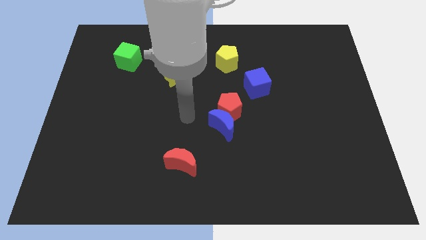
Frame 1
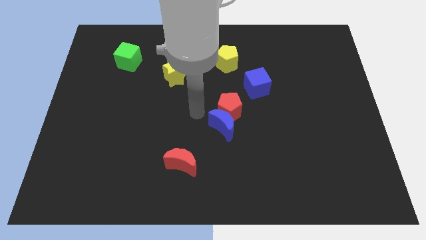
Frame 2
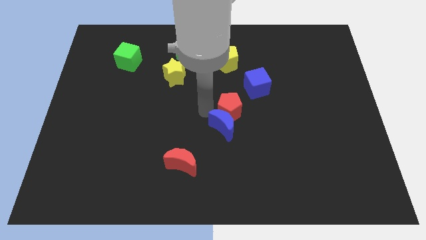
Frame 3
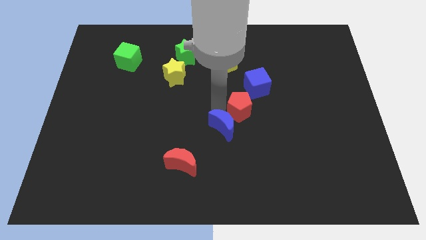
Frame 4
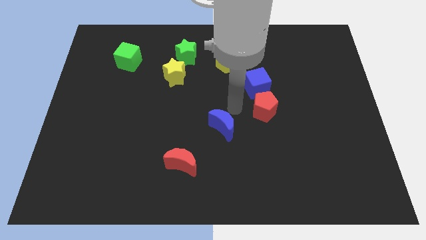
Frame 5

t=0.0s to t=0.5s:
move the blue moon away from the red pentagon

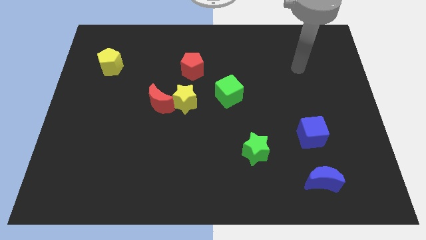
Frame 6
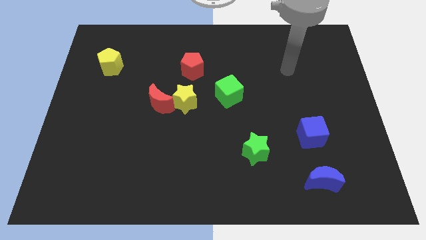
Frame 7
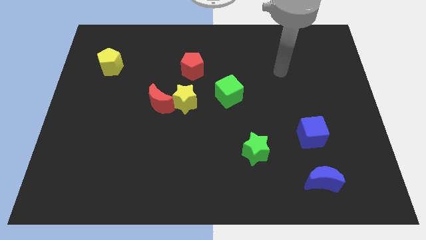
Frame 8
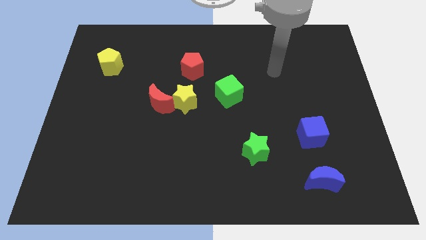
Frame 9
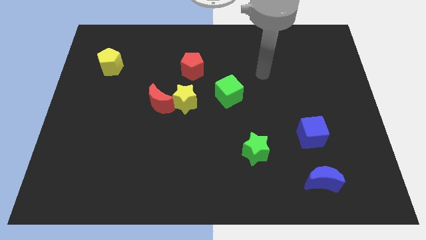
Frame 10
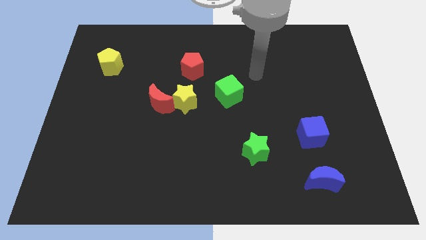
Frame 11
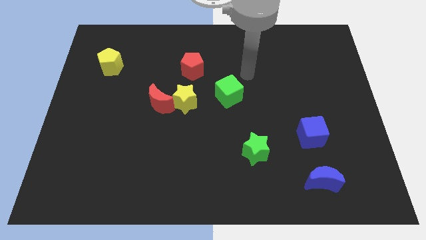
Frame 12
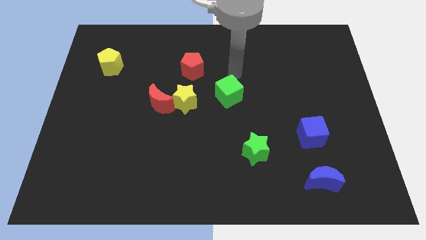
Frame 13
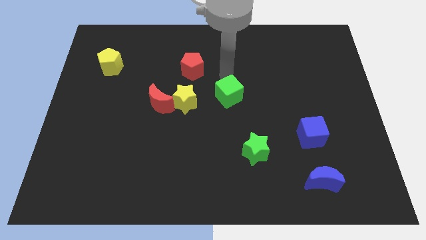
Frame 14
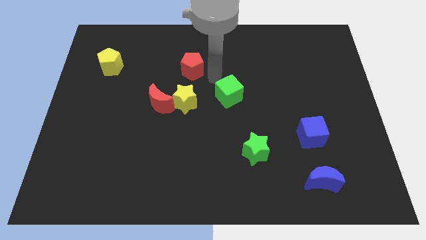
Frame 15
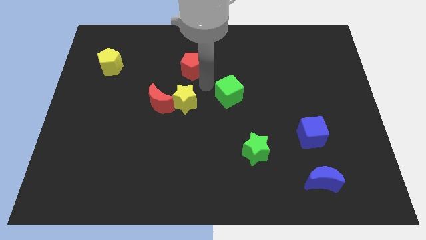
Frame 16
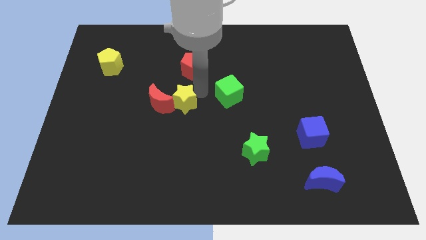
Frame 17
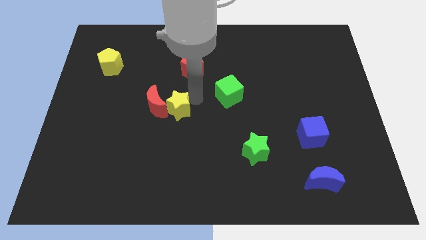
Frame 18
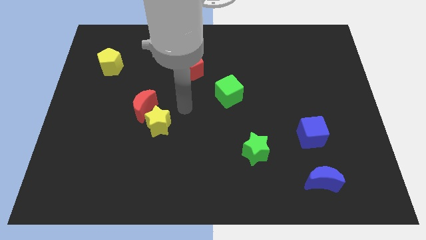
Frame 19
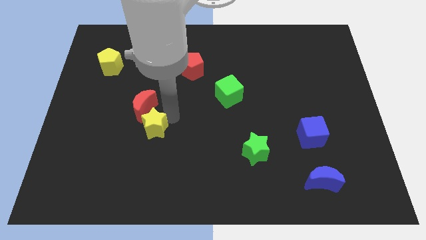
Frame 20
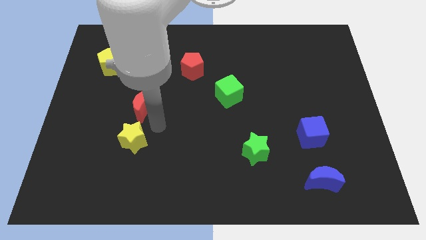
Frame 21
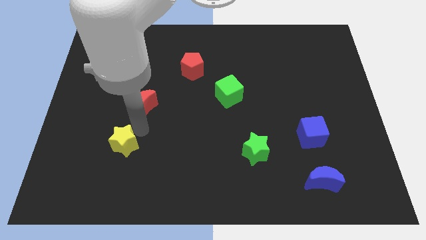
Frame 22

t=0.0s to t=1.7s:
move the red moon away from the yellow star

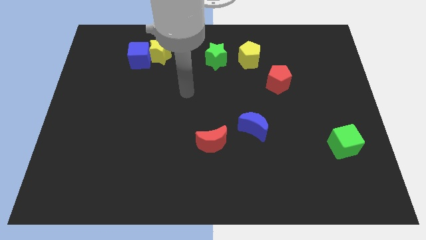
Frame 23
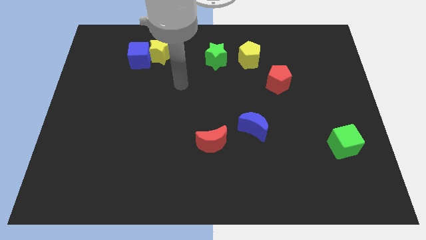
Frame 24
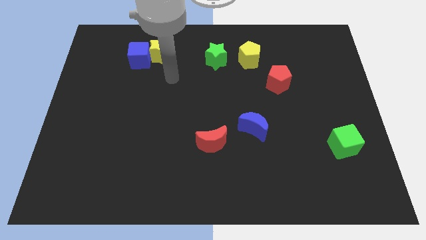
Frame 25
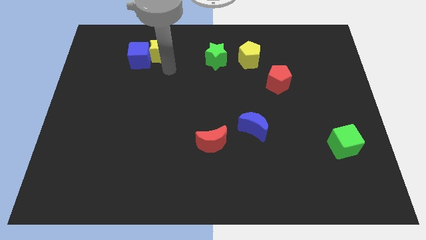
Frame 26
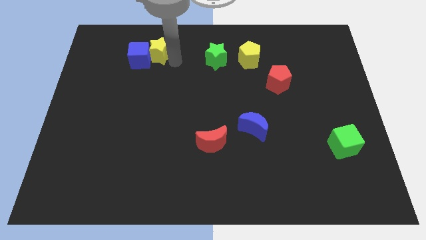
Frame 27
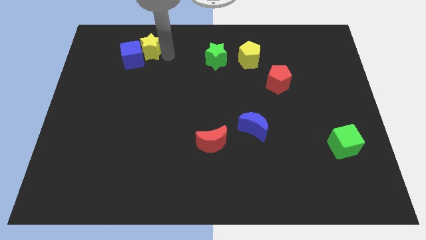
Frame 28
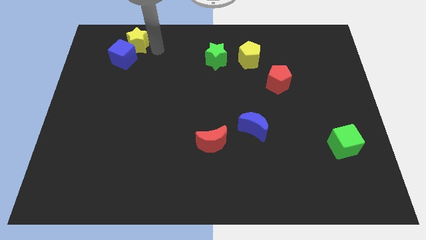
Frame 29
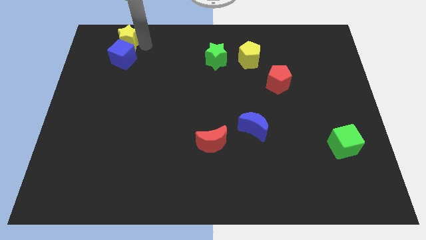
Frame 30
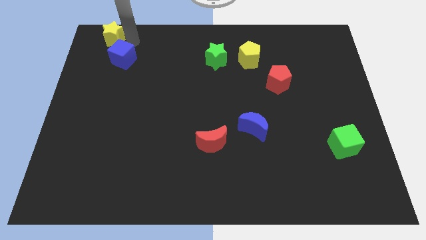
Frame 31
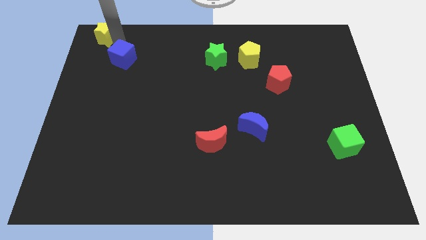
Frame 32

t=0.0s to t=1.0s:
pull the blue cube apart from the yellow star

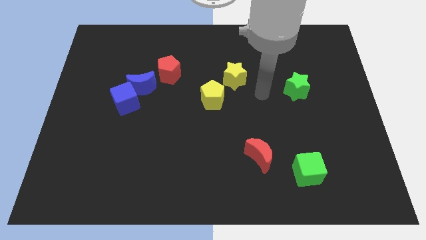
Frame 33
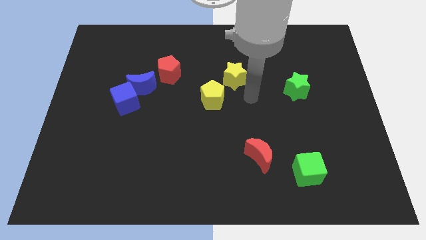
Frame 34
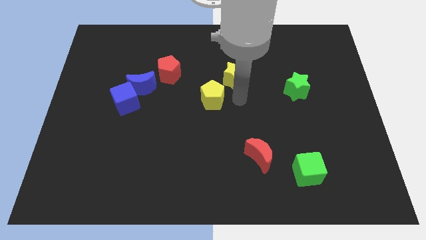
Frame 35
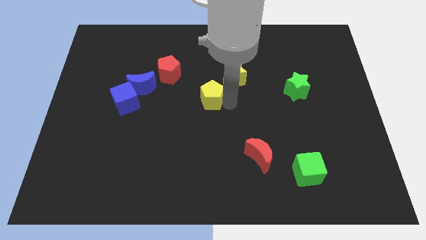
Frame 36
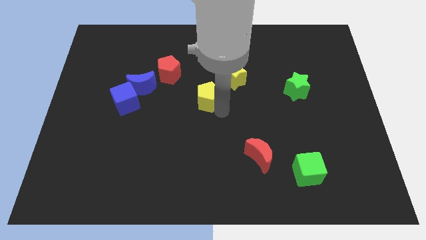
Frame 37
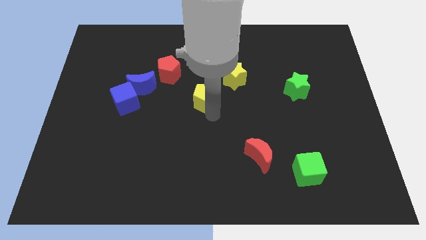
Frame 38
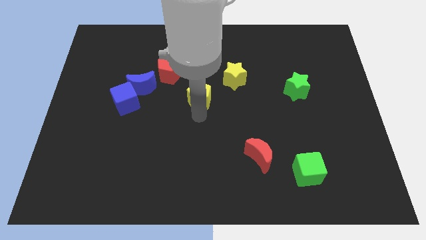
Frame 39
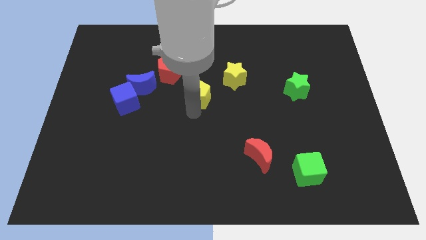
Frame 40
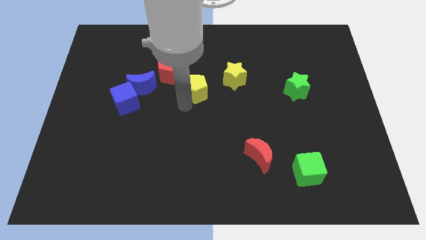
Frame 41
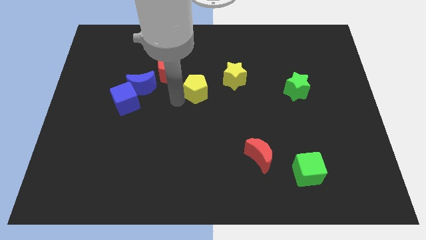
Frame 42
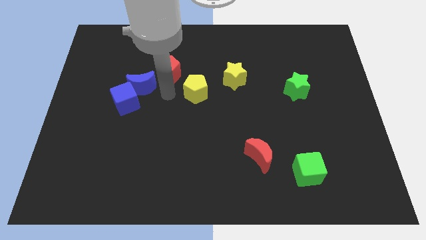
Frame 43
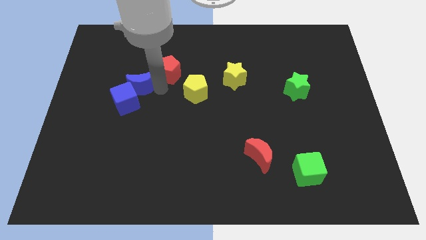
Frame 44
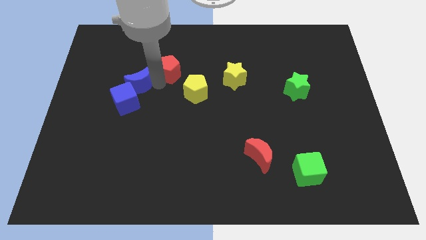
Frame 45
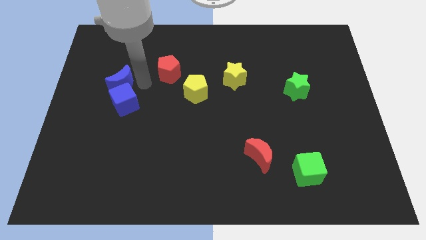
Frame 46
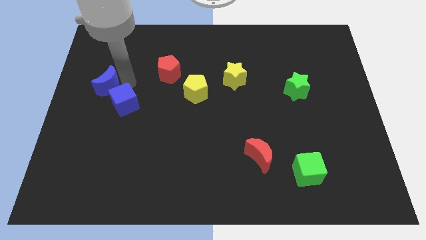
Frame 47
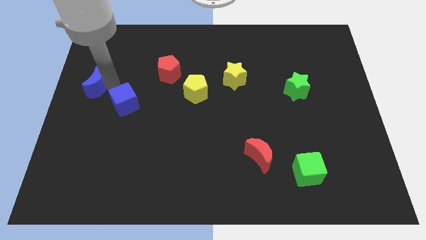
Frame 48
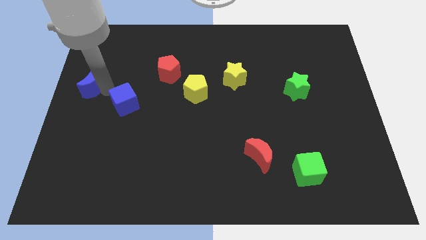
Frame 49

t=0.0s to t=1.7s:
move the blue cube away from the blue moon

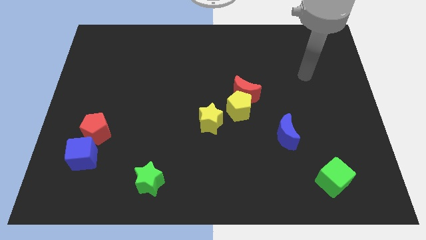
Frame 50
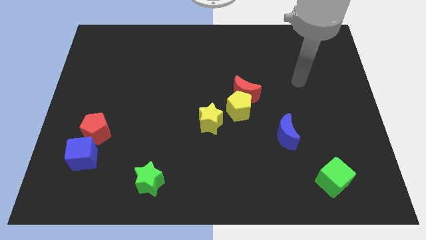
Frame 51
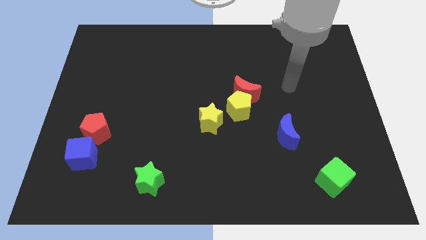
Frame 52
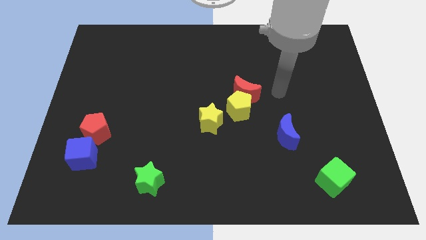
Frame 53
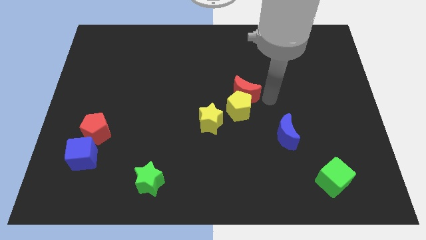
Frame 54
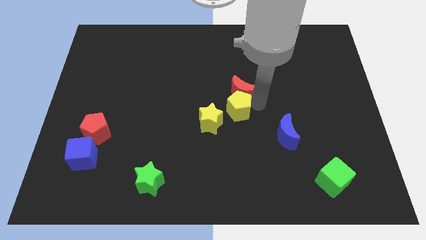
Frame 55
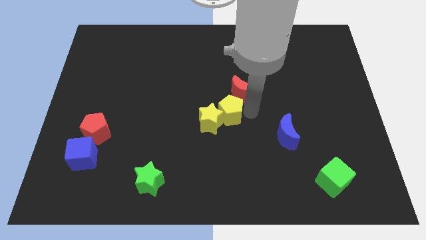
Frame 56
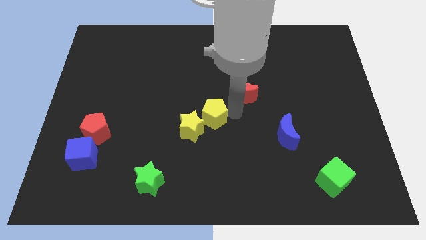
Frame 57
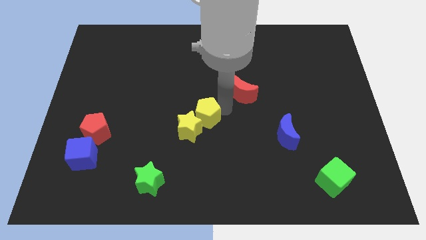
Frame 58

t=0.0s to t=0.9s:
separate the red moon from the yellow pentagon

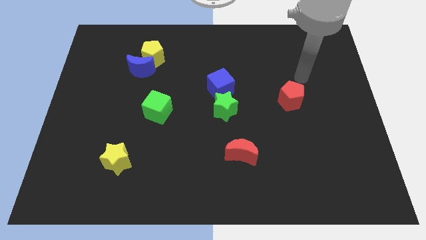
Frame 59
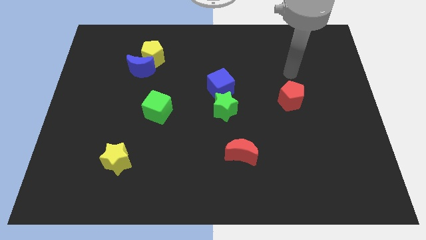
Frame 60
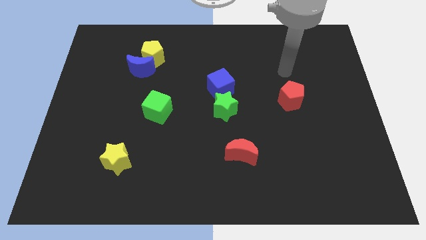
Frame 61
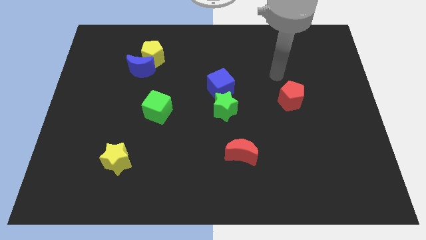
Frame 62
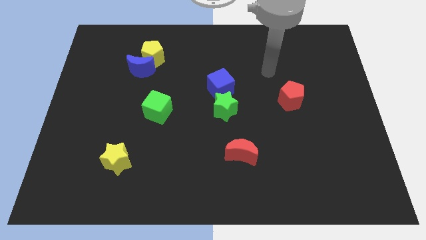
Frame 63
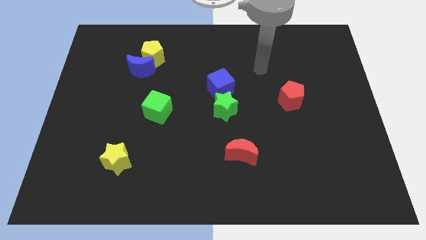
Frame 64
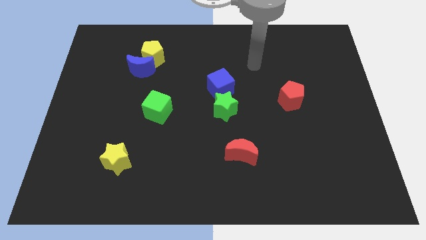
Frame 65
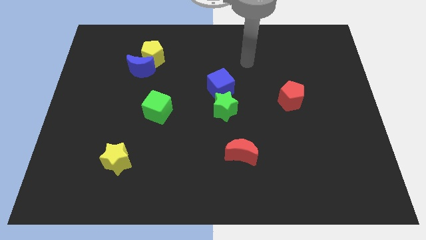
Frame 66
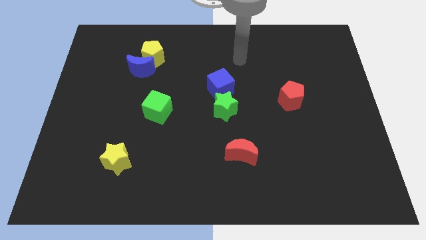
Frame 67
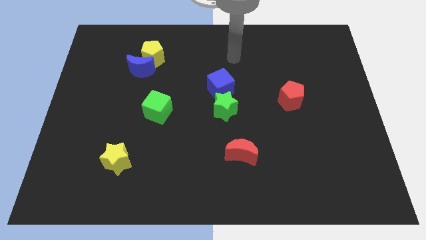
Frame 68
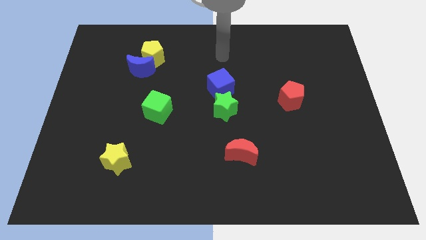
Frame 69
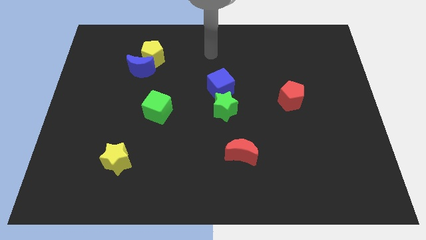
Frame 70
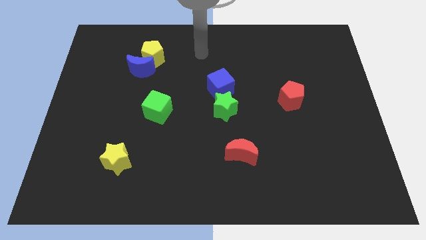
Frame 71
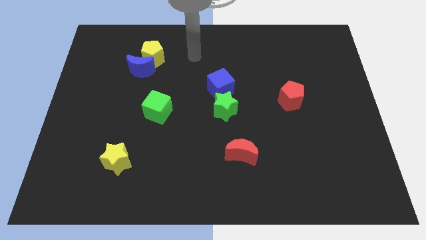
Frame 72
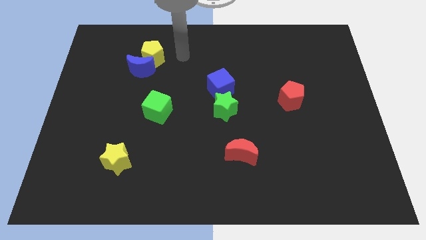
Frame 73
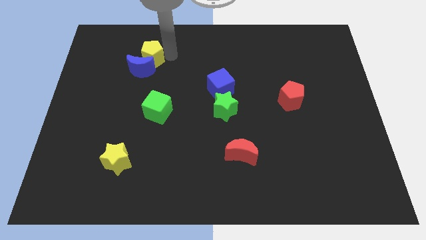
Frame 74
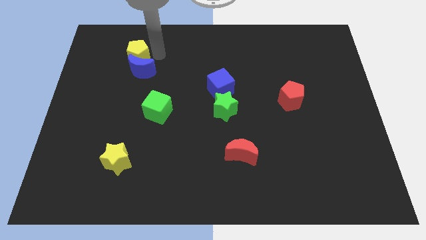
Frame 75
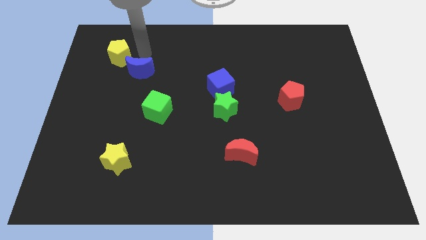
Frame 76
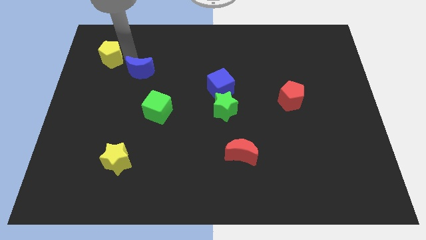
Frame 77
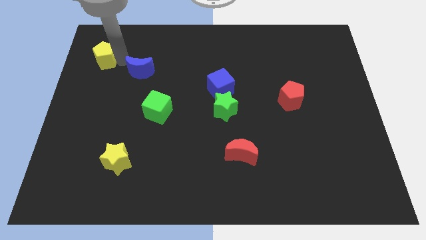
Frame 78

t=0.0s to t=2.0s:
separate the blue moon from the yellow pentagon

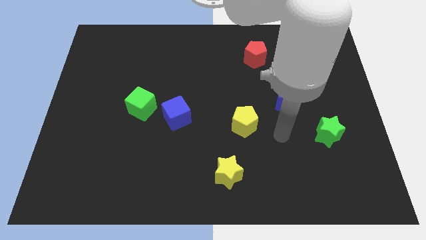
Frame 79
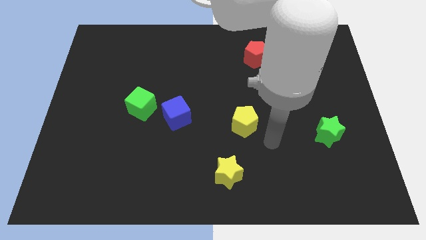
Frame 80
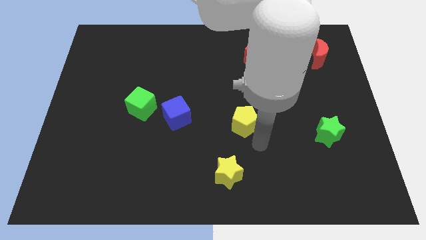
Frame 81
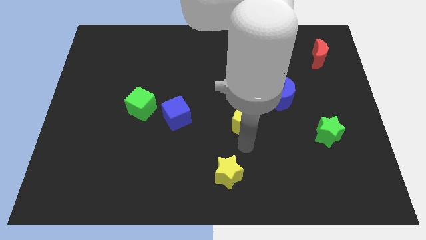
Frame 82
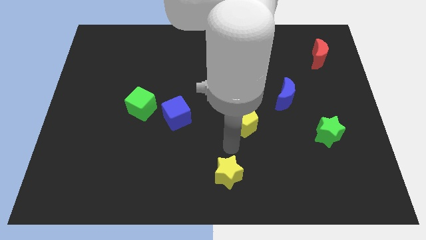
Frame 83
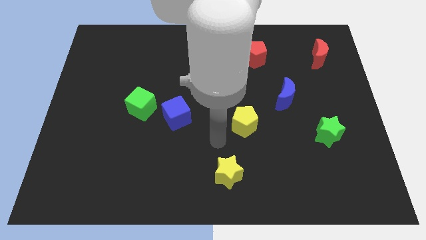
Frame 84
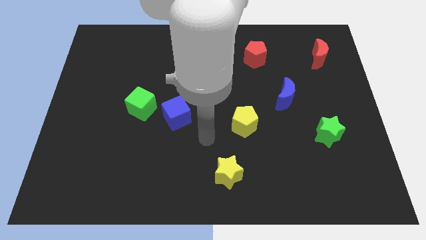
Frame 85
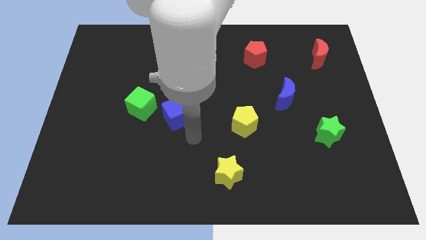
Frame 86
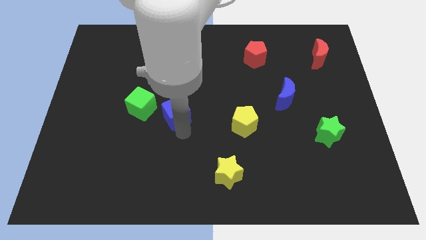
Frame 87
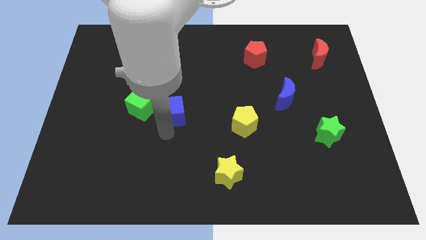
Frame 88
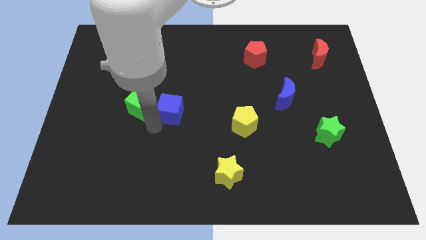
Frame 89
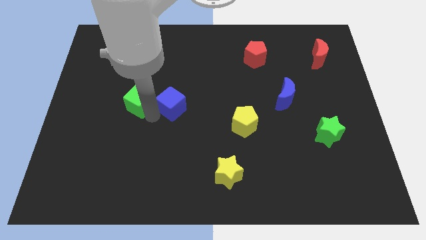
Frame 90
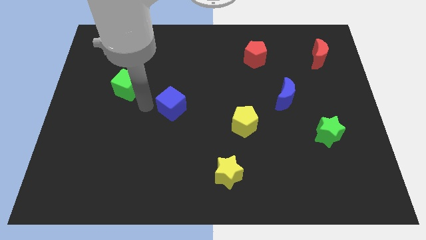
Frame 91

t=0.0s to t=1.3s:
separate the blue cube from the green cube

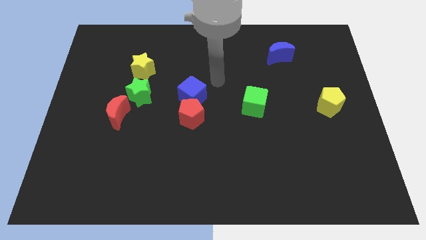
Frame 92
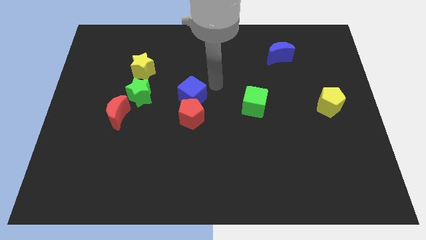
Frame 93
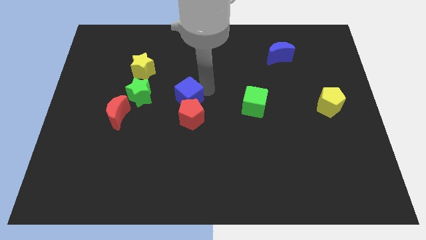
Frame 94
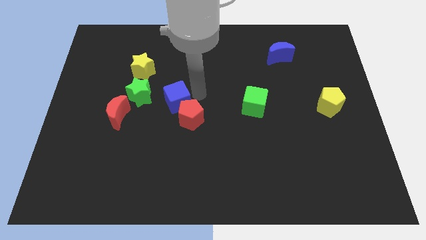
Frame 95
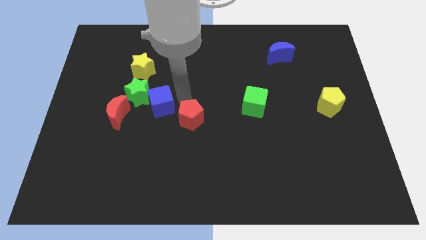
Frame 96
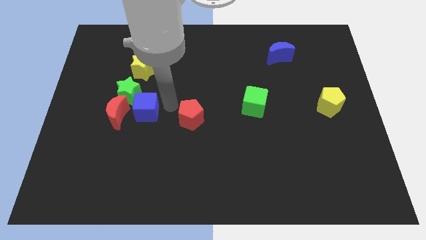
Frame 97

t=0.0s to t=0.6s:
separate the red pentagon from the blue cube
